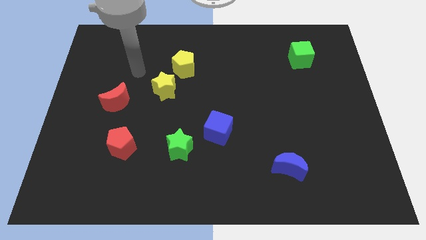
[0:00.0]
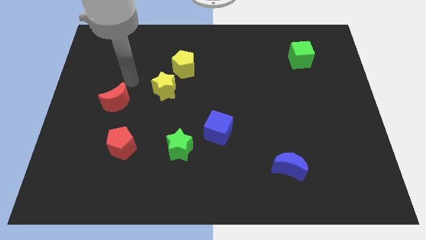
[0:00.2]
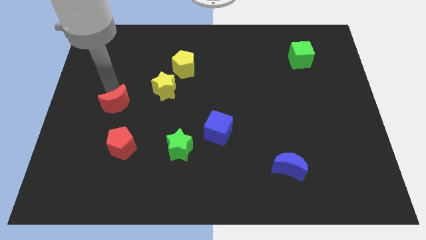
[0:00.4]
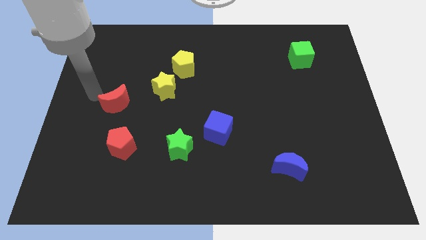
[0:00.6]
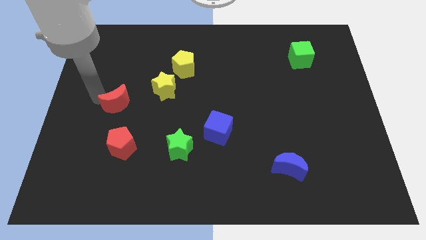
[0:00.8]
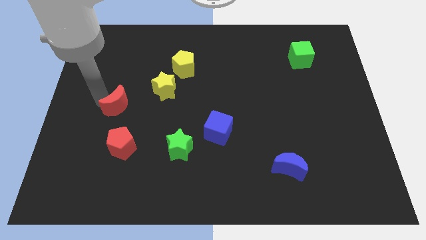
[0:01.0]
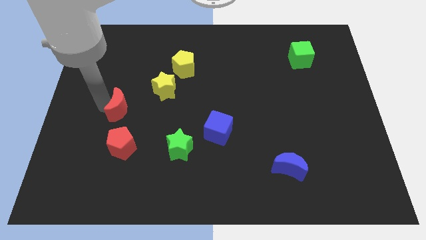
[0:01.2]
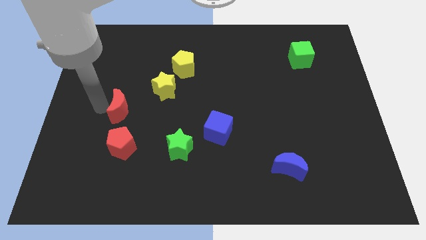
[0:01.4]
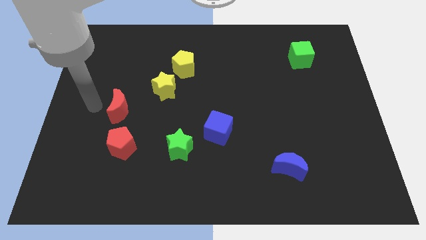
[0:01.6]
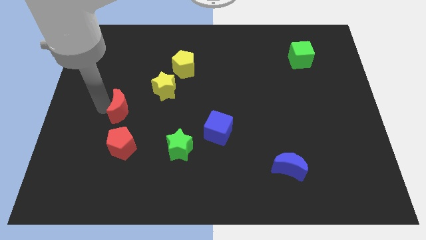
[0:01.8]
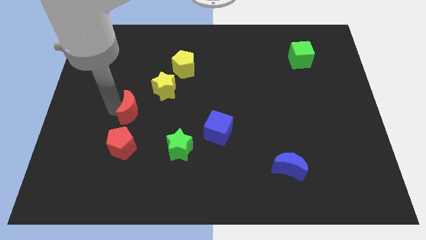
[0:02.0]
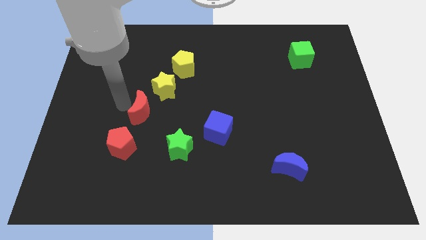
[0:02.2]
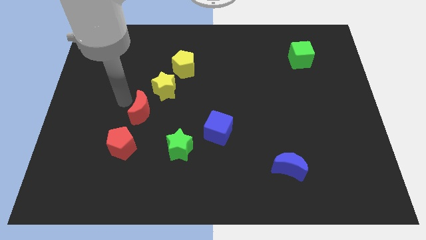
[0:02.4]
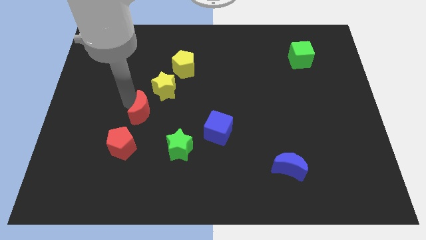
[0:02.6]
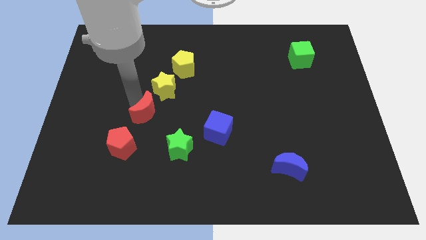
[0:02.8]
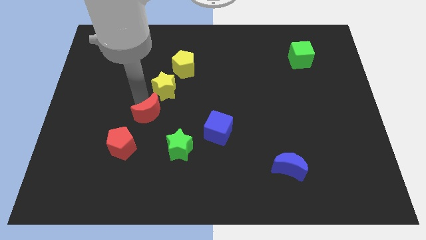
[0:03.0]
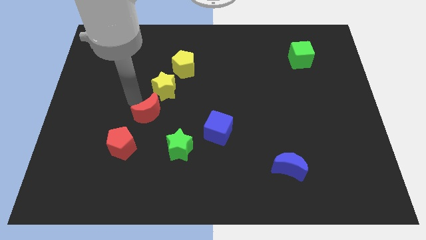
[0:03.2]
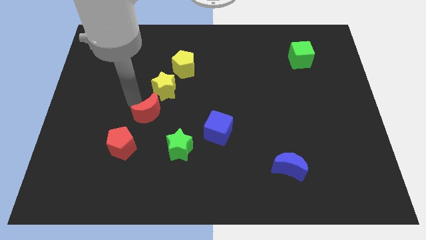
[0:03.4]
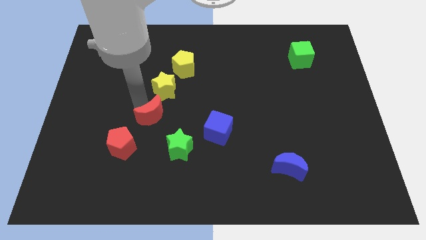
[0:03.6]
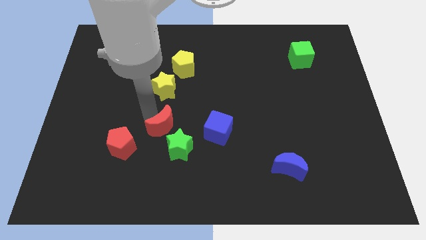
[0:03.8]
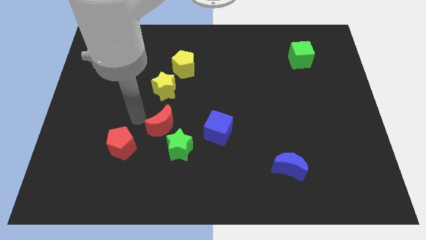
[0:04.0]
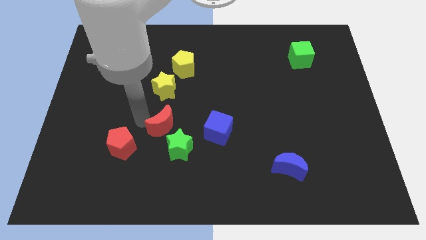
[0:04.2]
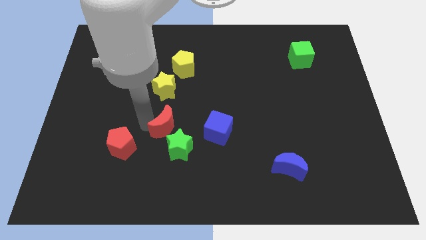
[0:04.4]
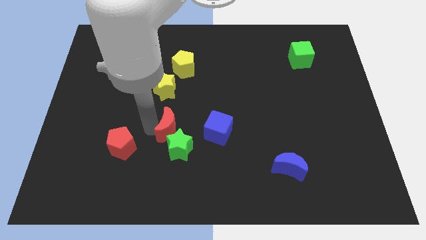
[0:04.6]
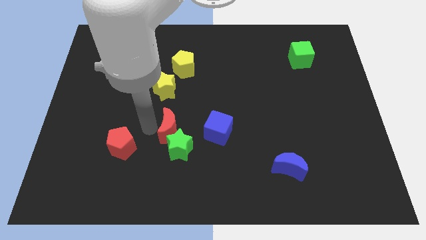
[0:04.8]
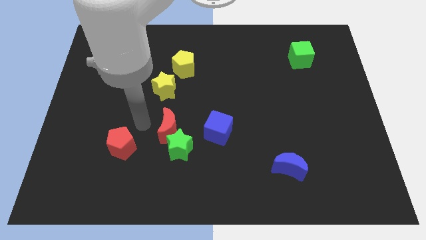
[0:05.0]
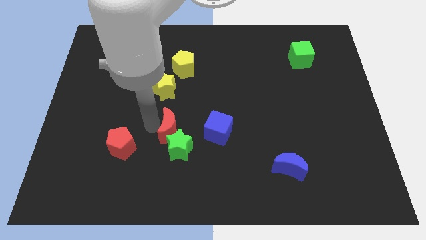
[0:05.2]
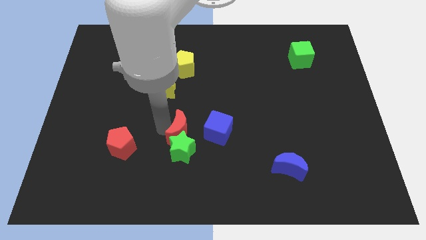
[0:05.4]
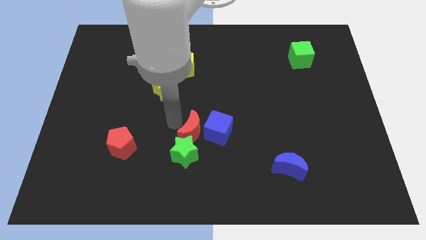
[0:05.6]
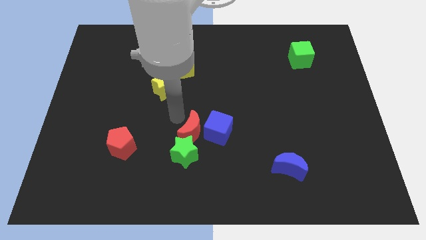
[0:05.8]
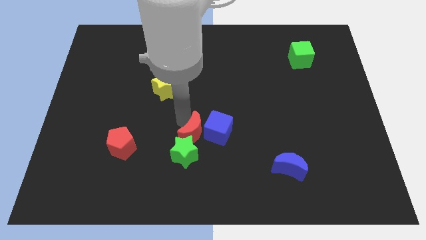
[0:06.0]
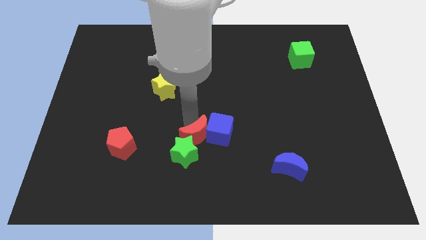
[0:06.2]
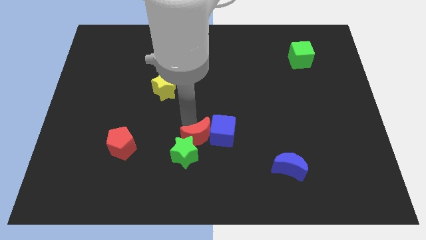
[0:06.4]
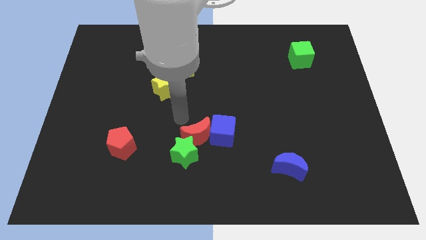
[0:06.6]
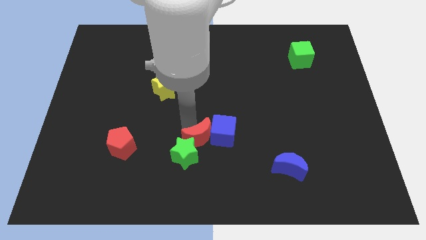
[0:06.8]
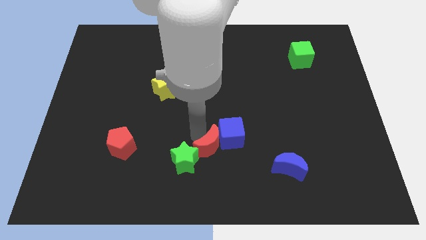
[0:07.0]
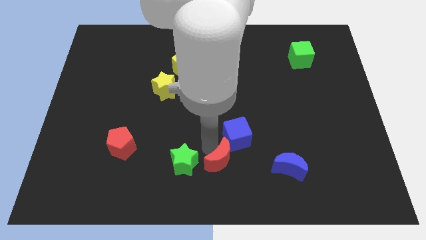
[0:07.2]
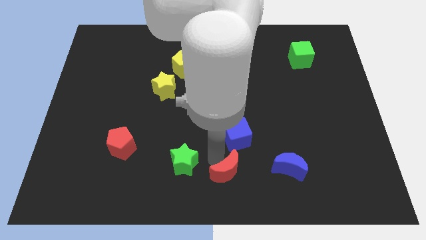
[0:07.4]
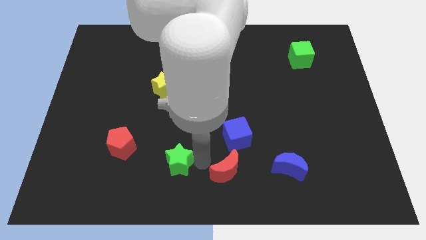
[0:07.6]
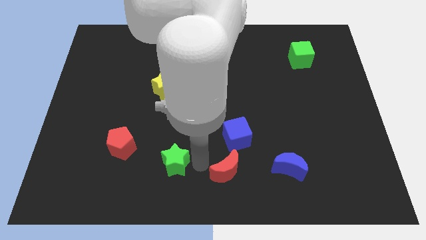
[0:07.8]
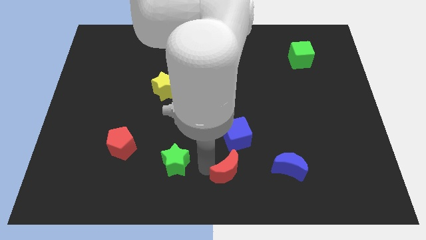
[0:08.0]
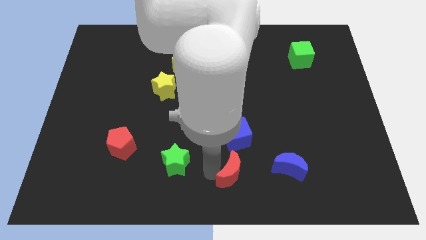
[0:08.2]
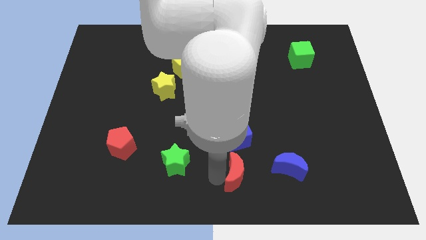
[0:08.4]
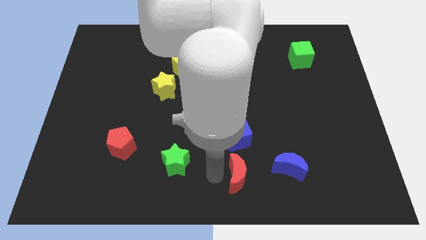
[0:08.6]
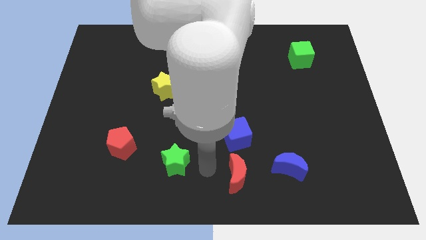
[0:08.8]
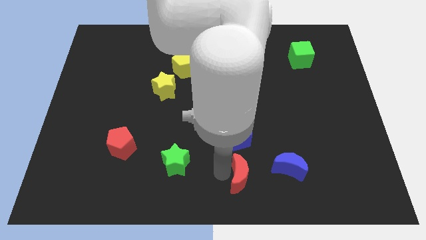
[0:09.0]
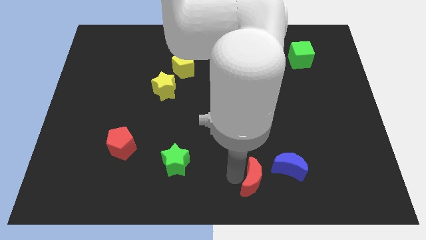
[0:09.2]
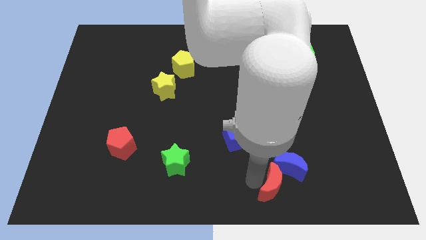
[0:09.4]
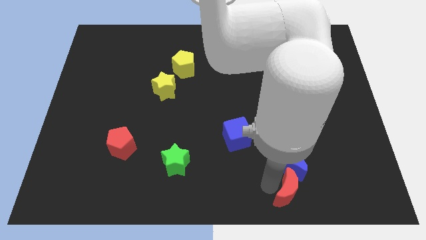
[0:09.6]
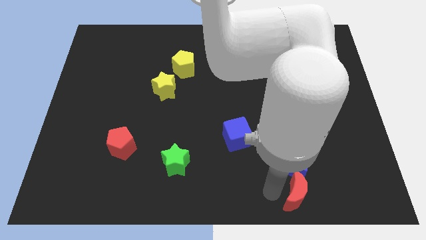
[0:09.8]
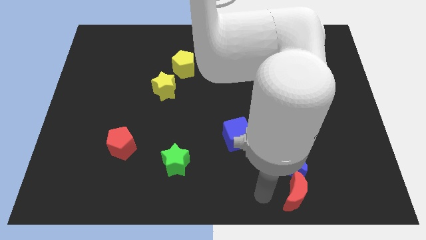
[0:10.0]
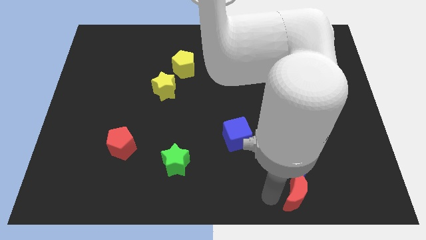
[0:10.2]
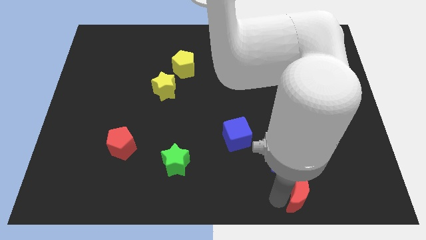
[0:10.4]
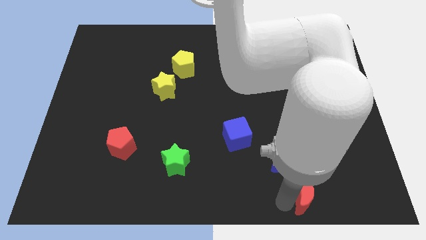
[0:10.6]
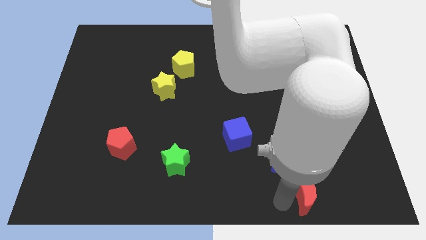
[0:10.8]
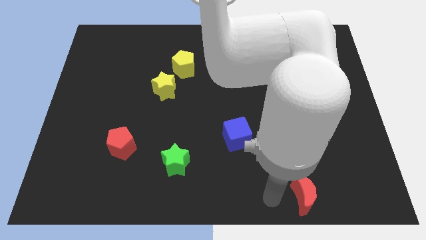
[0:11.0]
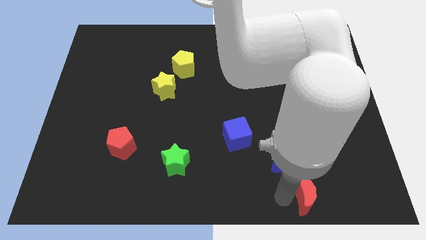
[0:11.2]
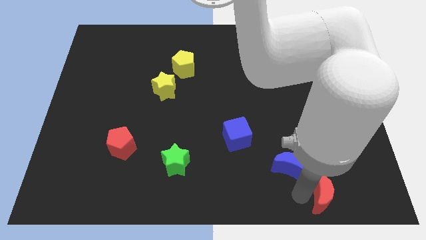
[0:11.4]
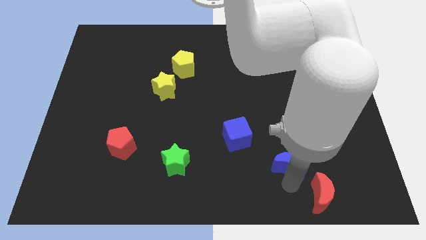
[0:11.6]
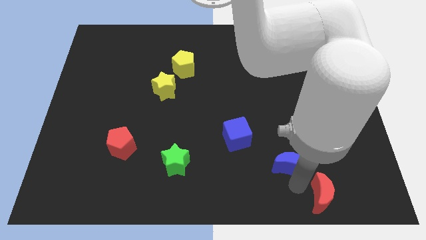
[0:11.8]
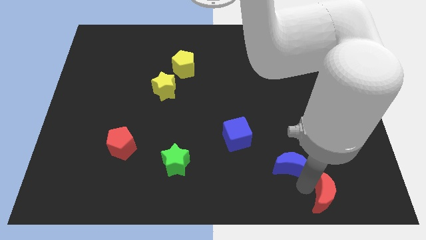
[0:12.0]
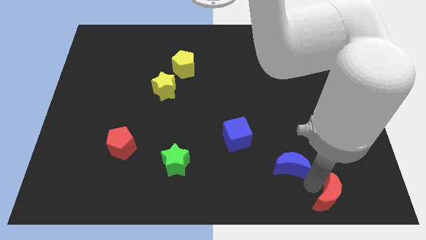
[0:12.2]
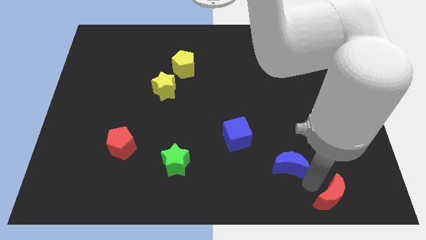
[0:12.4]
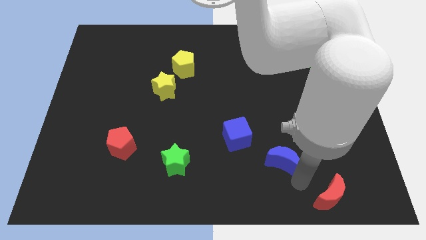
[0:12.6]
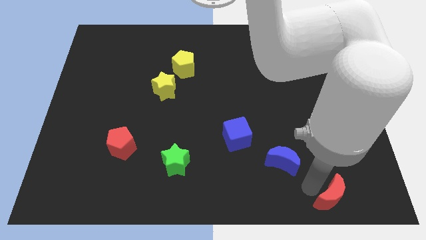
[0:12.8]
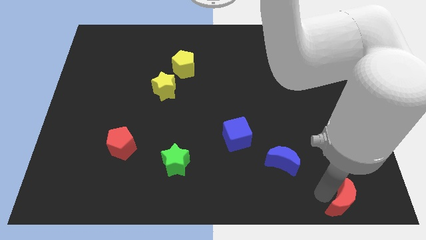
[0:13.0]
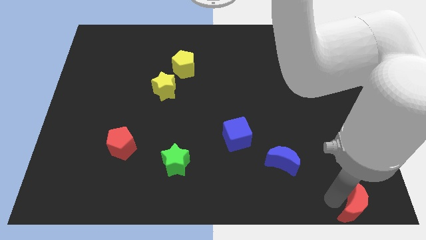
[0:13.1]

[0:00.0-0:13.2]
put the red moon to the bottom right of the board
